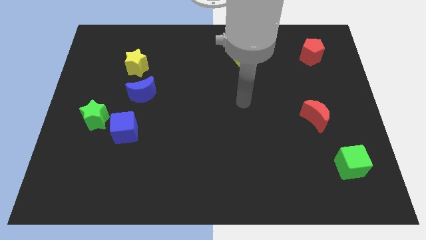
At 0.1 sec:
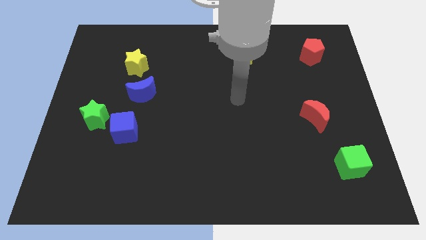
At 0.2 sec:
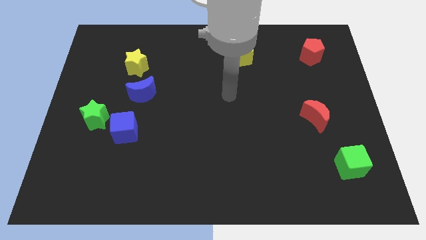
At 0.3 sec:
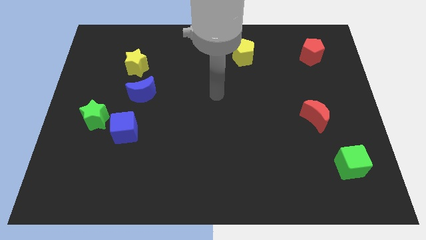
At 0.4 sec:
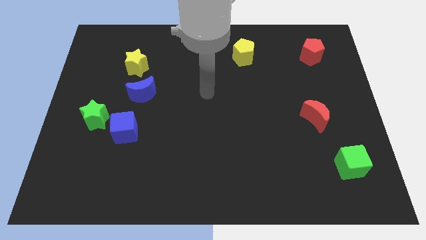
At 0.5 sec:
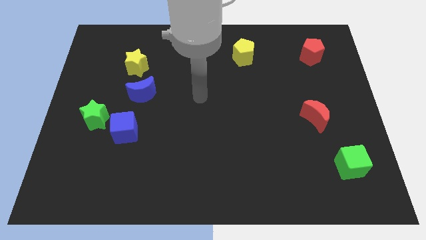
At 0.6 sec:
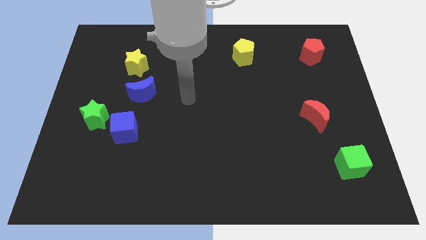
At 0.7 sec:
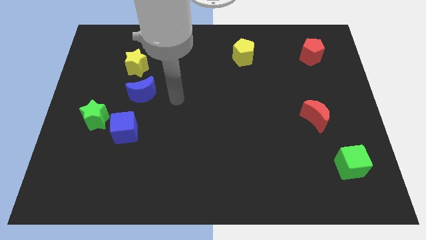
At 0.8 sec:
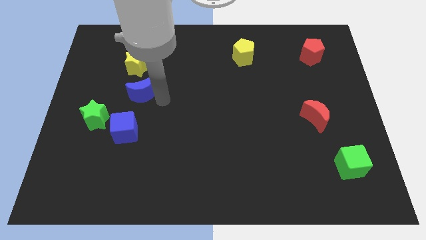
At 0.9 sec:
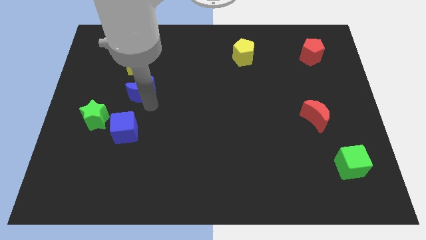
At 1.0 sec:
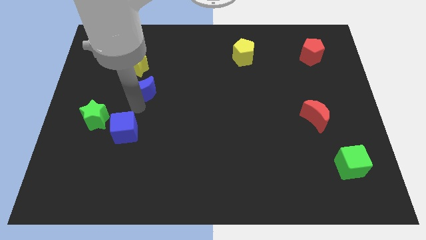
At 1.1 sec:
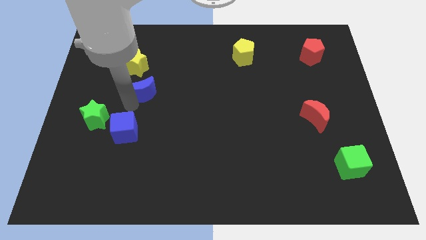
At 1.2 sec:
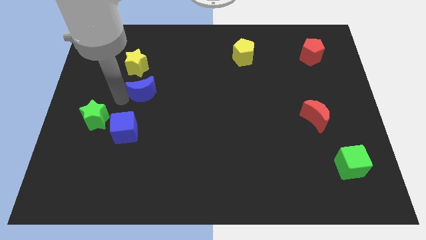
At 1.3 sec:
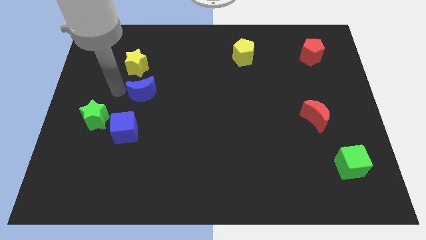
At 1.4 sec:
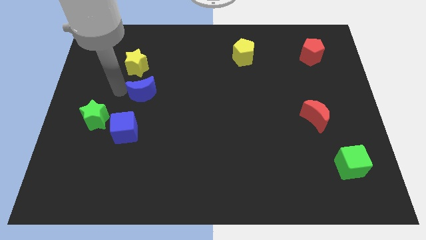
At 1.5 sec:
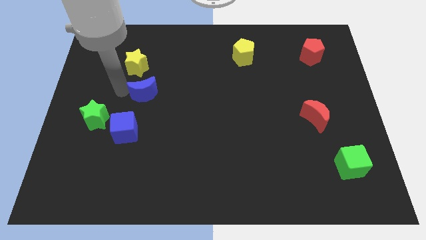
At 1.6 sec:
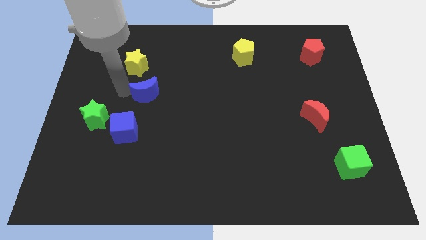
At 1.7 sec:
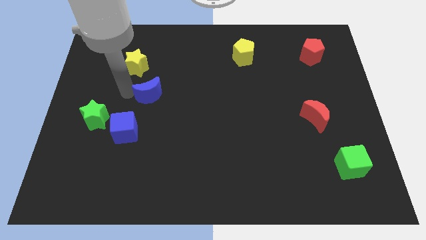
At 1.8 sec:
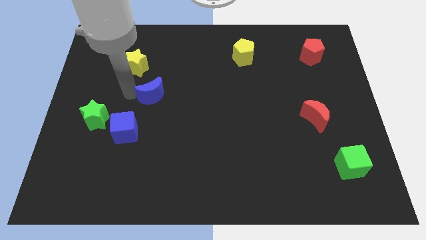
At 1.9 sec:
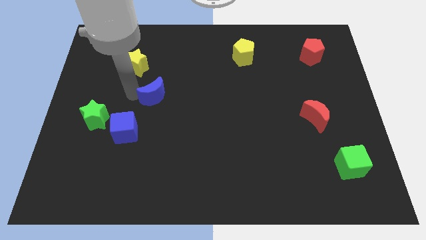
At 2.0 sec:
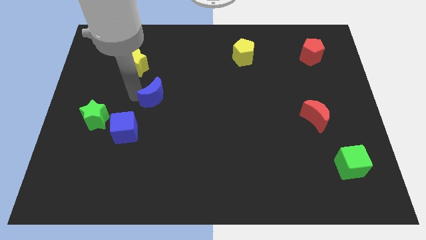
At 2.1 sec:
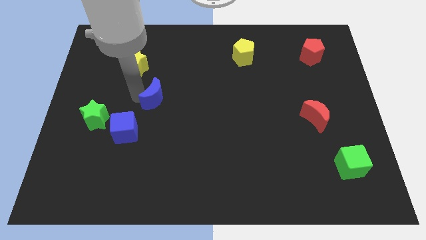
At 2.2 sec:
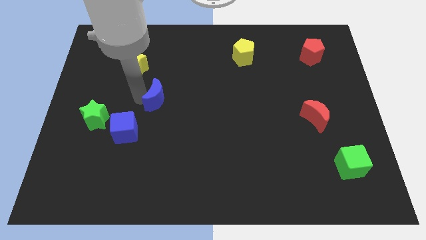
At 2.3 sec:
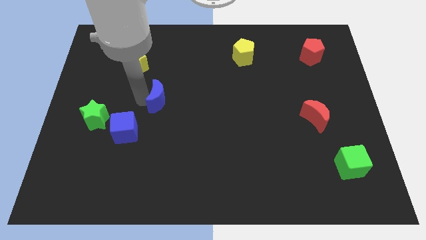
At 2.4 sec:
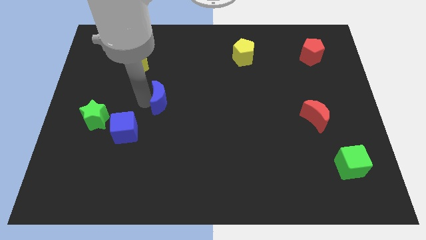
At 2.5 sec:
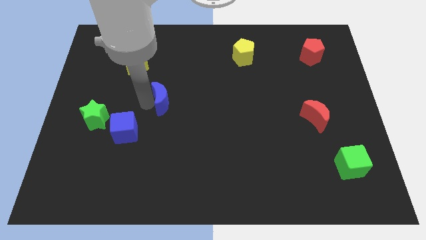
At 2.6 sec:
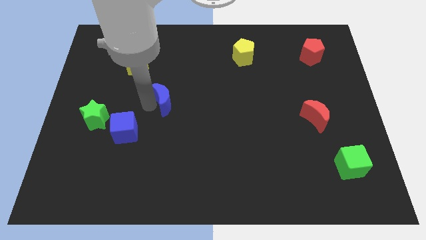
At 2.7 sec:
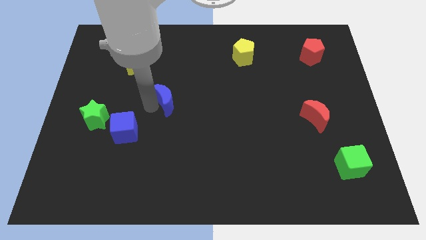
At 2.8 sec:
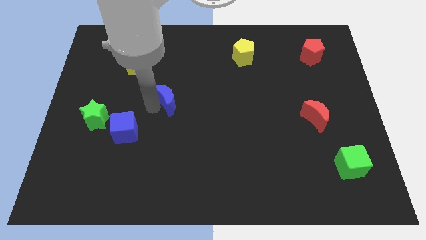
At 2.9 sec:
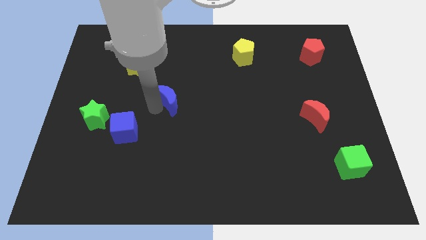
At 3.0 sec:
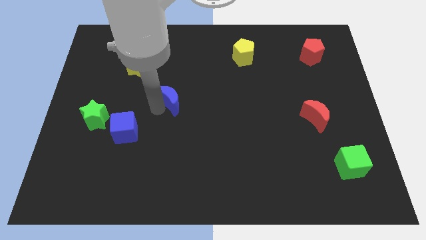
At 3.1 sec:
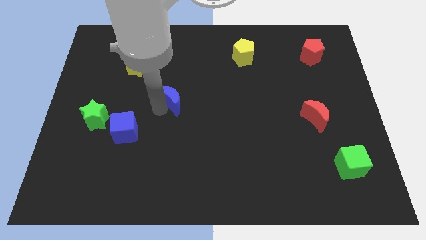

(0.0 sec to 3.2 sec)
slide the blue moon right somewhat

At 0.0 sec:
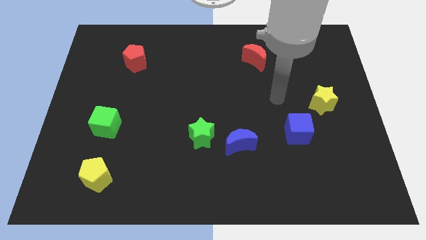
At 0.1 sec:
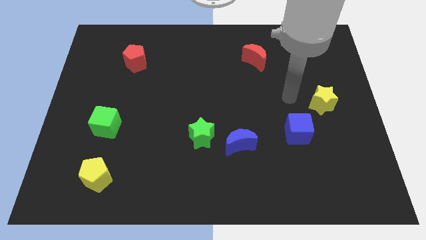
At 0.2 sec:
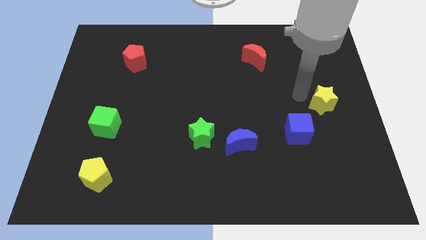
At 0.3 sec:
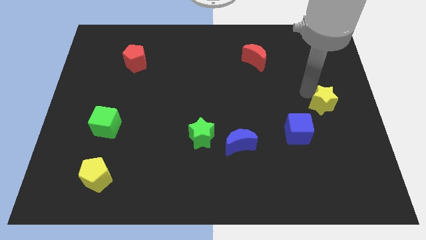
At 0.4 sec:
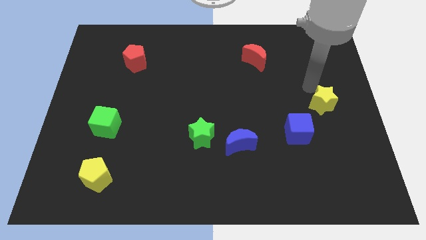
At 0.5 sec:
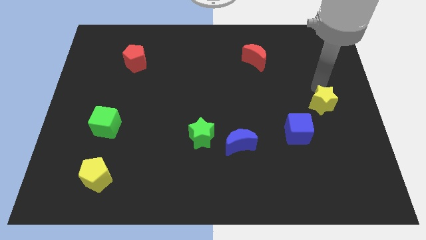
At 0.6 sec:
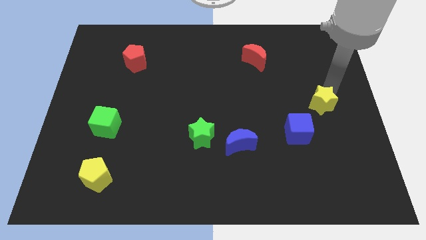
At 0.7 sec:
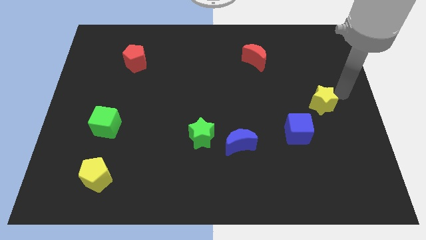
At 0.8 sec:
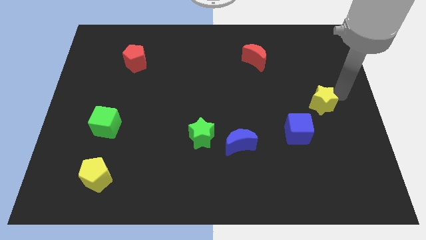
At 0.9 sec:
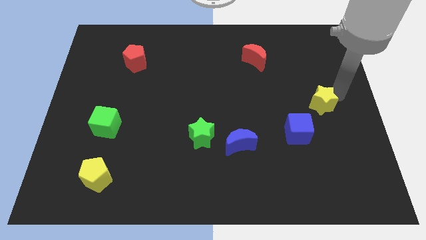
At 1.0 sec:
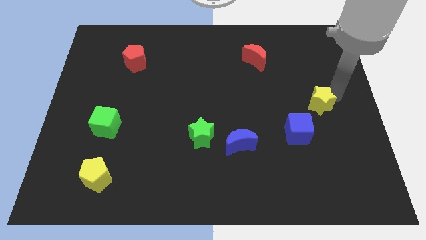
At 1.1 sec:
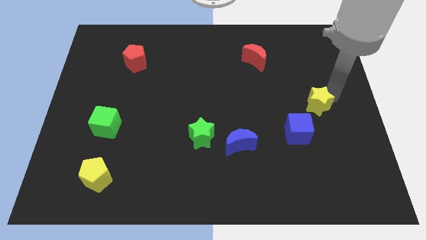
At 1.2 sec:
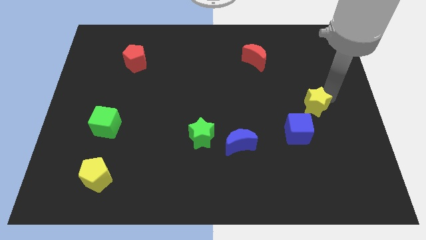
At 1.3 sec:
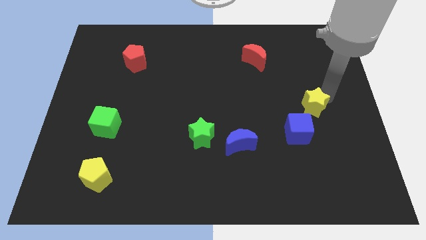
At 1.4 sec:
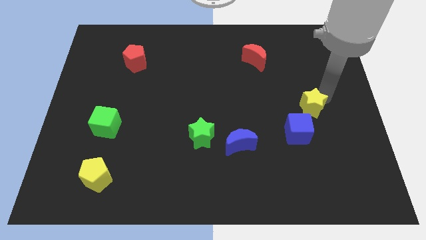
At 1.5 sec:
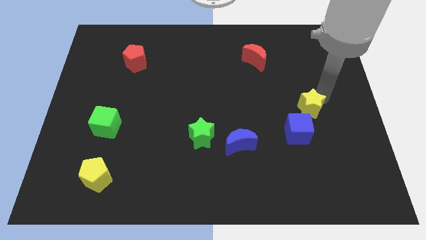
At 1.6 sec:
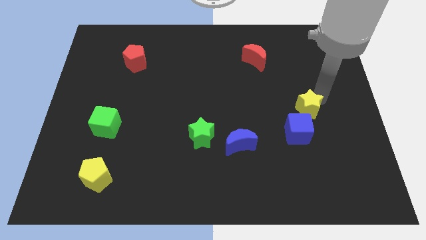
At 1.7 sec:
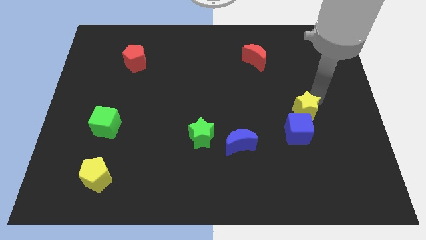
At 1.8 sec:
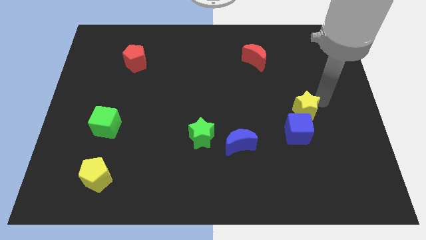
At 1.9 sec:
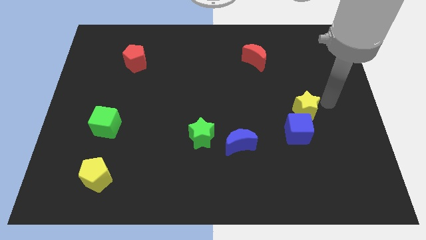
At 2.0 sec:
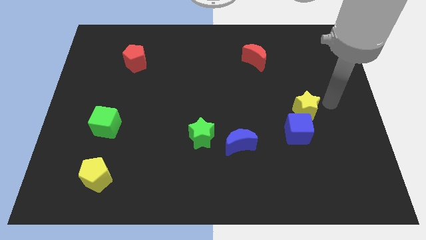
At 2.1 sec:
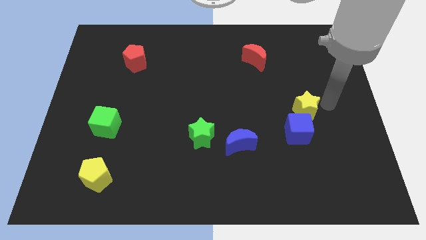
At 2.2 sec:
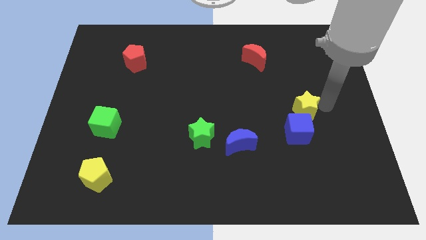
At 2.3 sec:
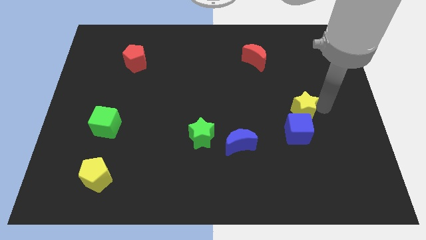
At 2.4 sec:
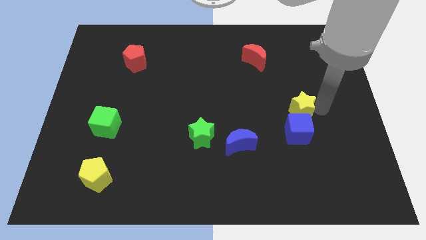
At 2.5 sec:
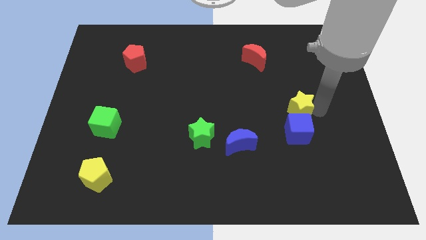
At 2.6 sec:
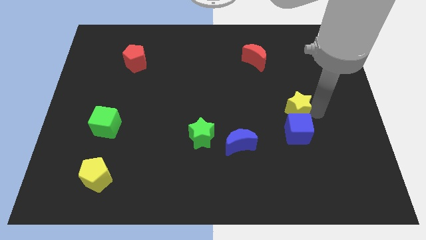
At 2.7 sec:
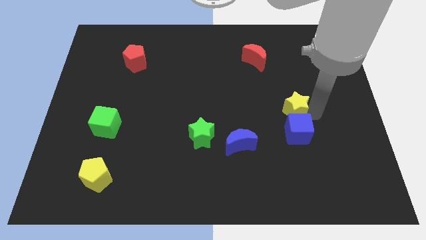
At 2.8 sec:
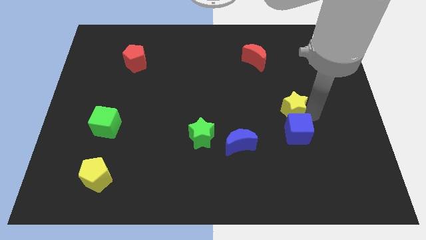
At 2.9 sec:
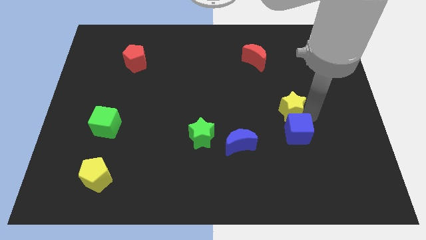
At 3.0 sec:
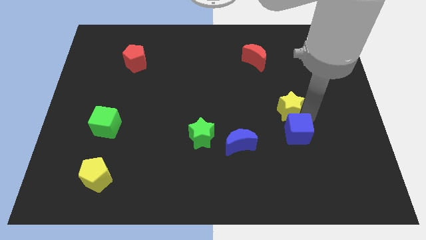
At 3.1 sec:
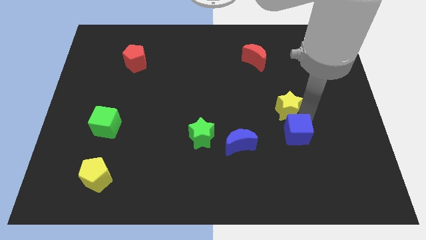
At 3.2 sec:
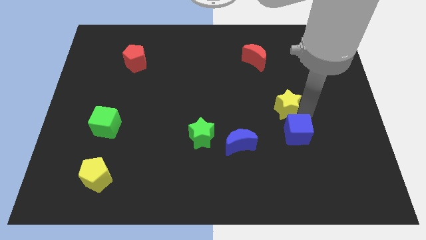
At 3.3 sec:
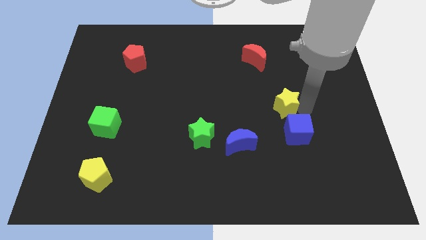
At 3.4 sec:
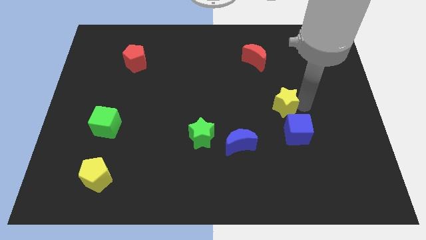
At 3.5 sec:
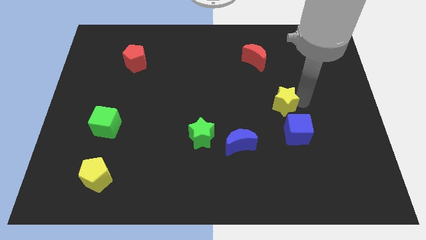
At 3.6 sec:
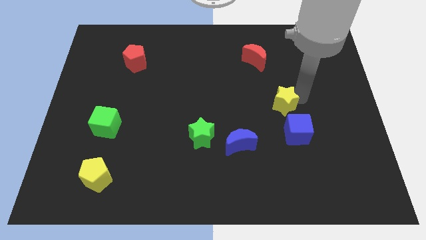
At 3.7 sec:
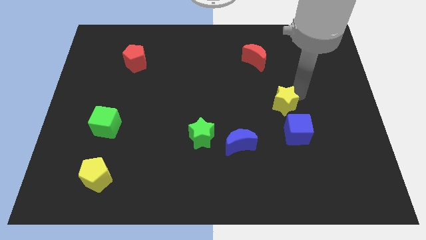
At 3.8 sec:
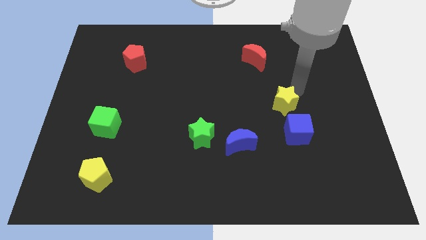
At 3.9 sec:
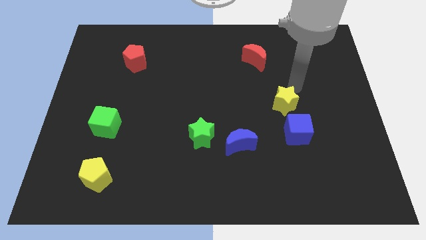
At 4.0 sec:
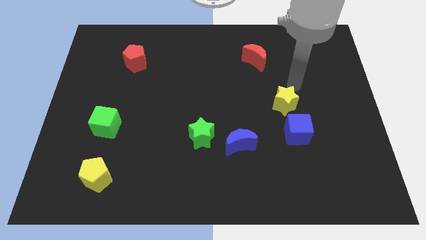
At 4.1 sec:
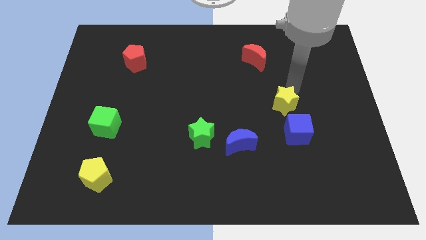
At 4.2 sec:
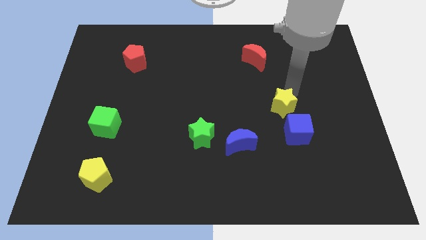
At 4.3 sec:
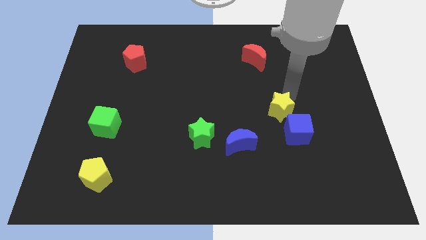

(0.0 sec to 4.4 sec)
move the yellow star down and then to the left slightly

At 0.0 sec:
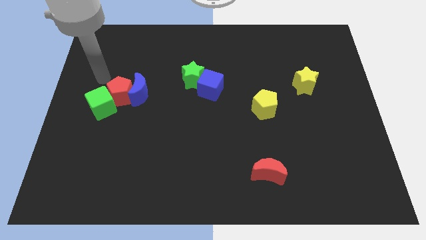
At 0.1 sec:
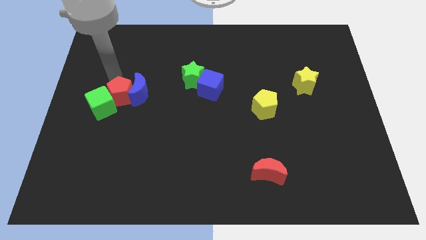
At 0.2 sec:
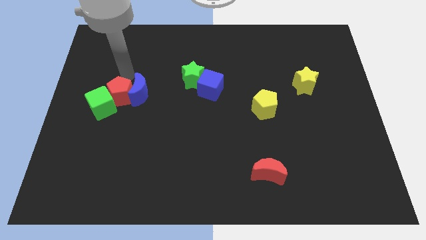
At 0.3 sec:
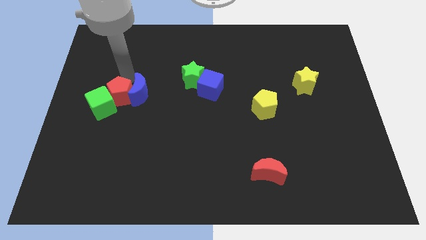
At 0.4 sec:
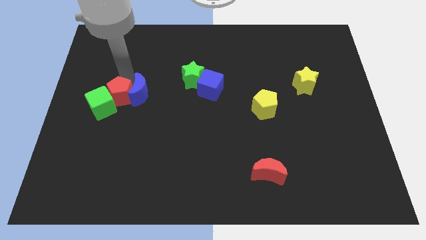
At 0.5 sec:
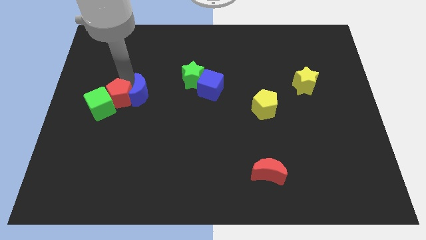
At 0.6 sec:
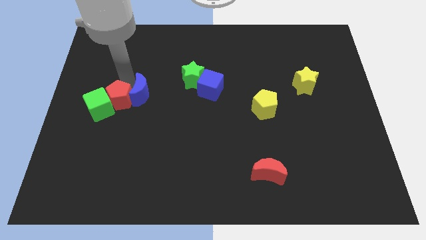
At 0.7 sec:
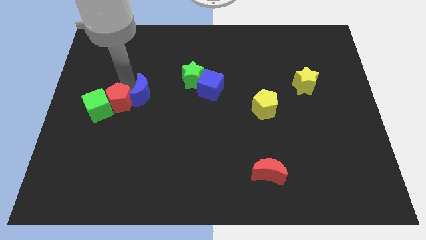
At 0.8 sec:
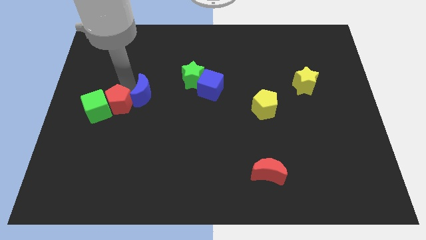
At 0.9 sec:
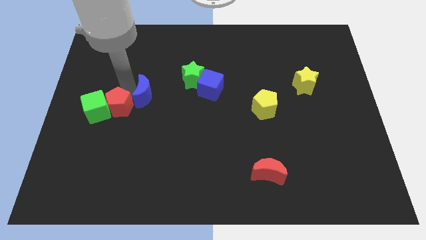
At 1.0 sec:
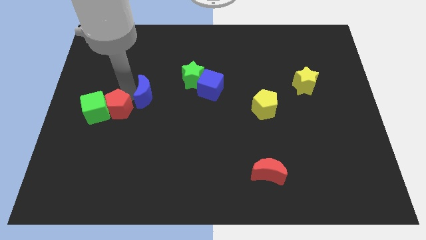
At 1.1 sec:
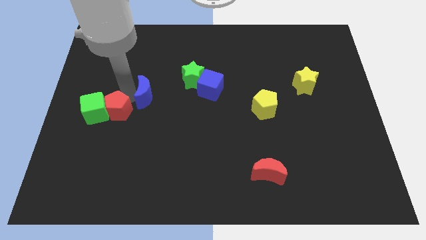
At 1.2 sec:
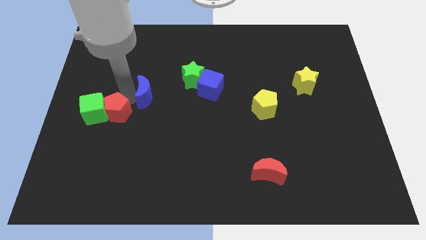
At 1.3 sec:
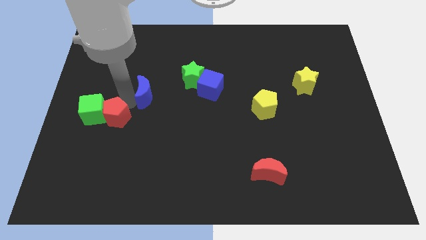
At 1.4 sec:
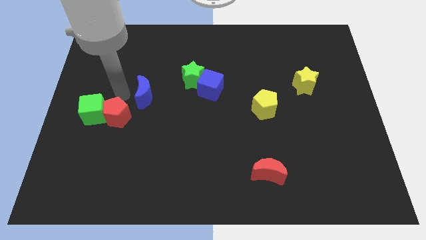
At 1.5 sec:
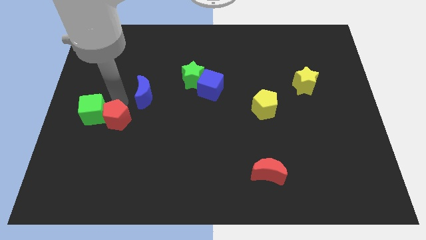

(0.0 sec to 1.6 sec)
push the red pentagon down slightly
